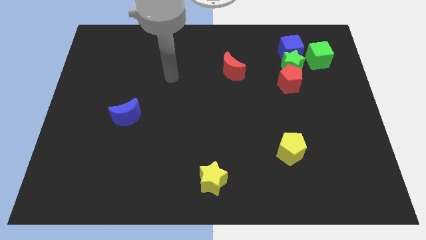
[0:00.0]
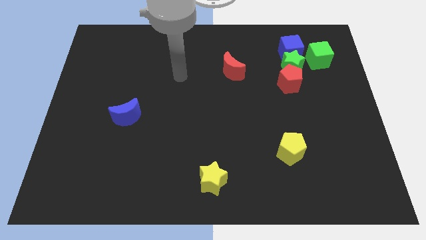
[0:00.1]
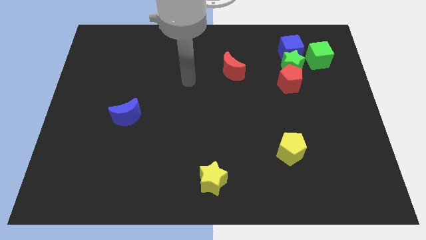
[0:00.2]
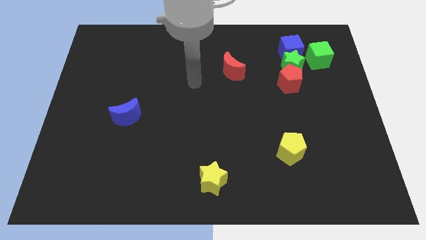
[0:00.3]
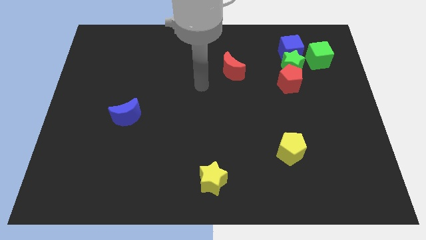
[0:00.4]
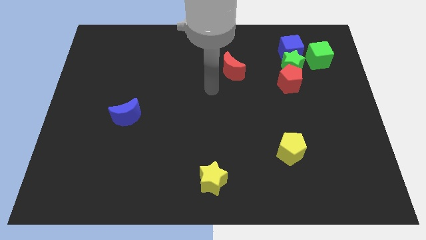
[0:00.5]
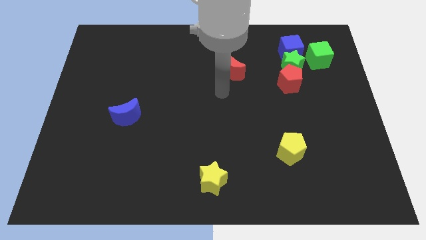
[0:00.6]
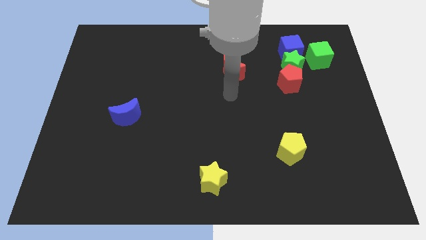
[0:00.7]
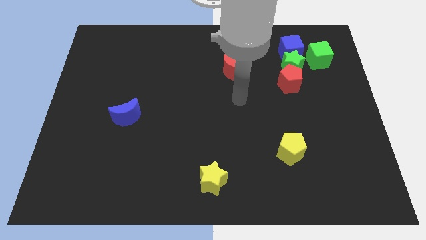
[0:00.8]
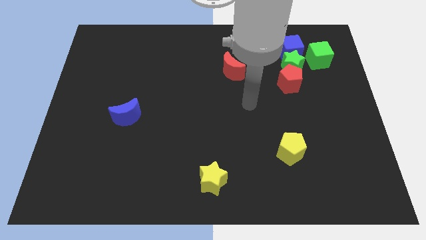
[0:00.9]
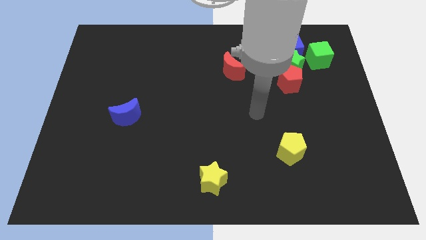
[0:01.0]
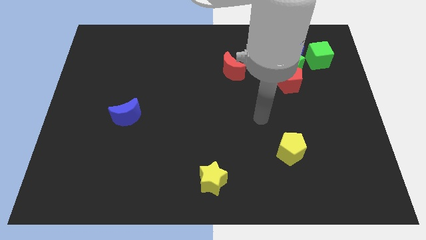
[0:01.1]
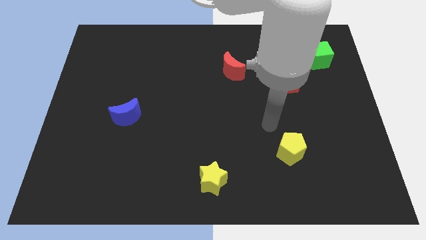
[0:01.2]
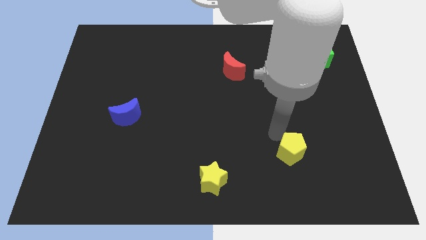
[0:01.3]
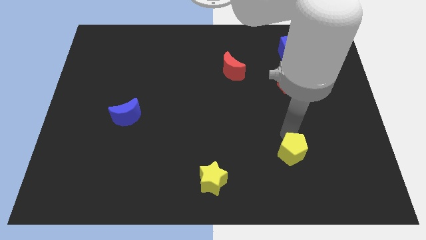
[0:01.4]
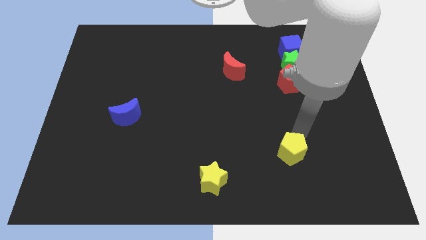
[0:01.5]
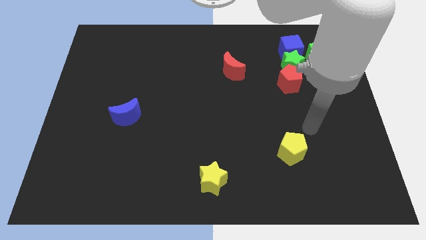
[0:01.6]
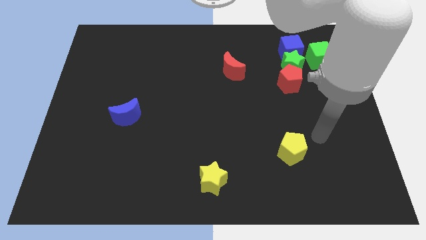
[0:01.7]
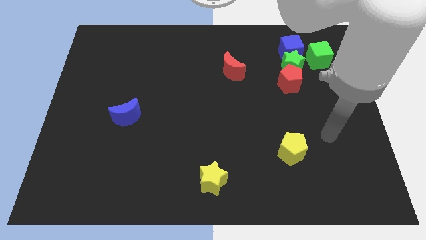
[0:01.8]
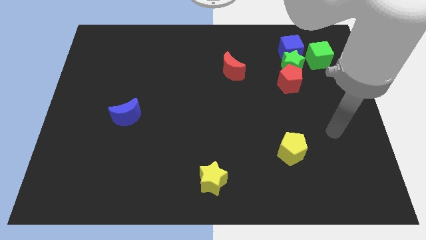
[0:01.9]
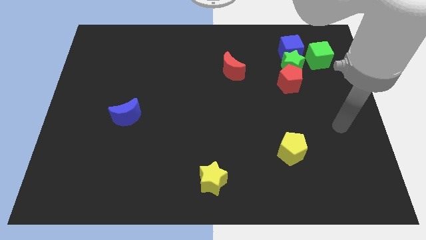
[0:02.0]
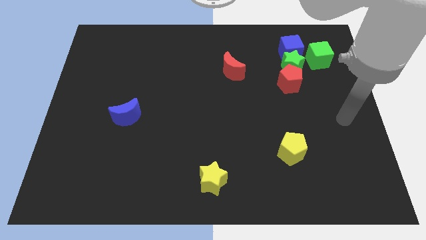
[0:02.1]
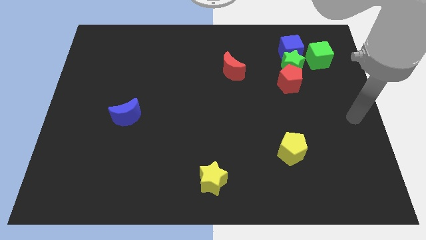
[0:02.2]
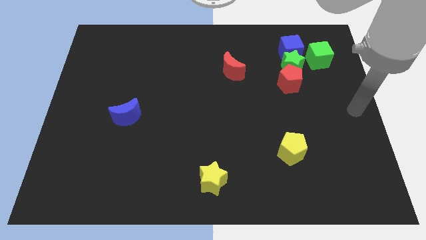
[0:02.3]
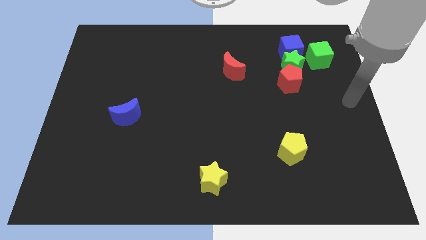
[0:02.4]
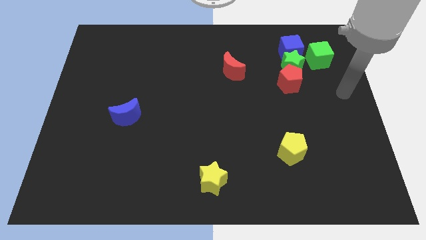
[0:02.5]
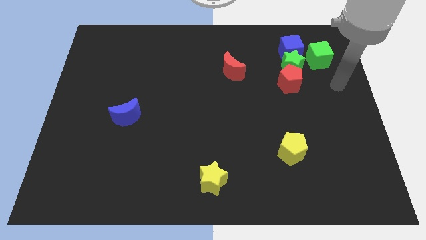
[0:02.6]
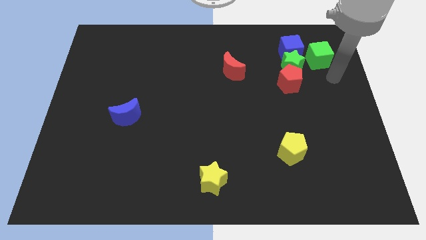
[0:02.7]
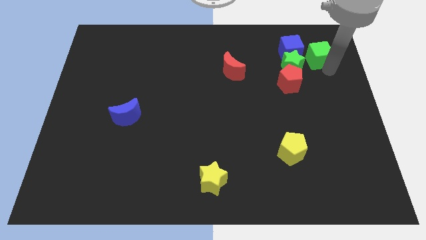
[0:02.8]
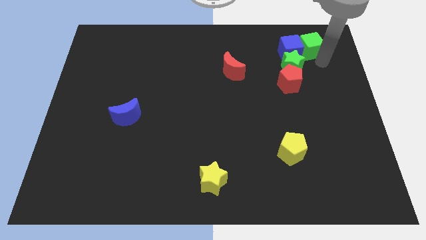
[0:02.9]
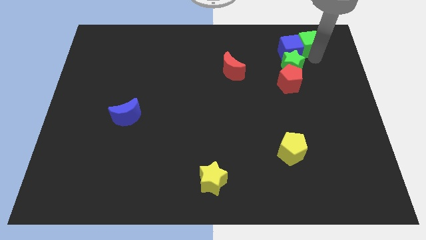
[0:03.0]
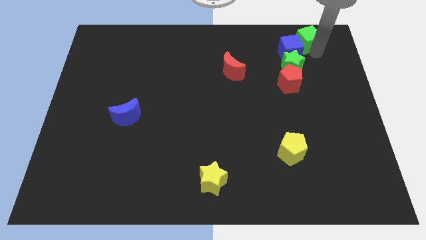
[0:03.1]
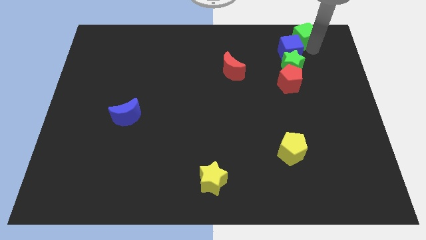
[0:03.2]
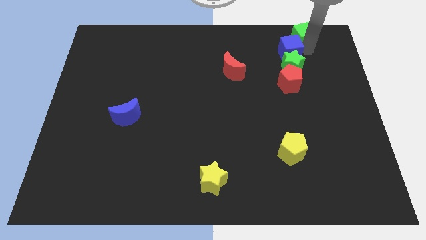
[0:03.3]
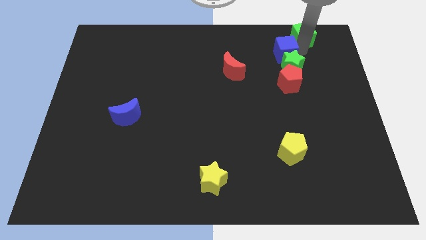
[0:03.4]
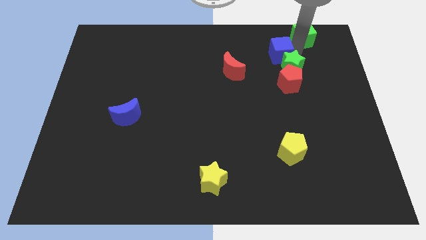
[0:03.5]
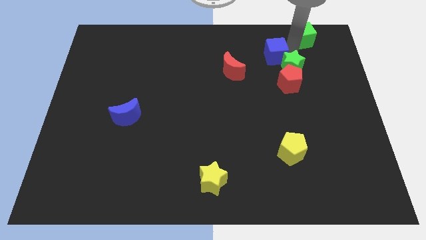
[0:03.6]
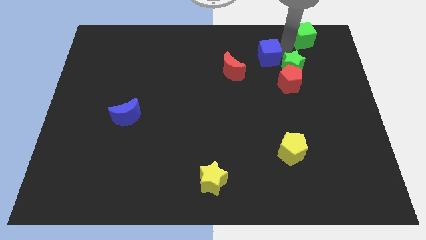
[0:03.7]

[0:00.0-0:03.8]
move the blue cube to the top right side of the red moon

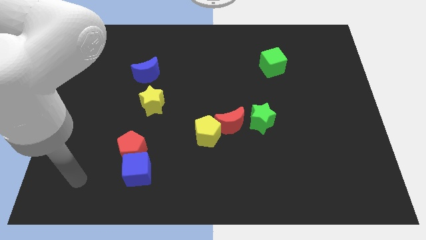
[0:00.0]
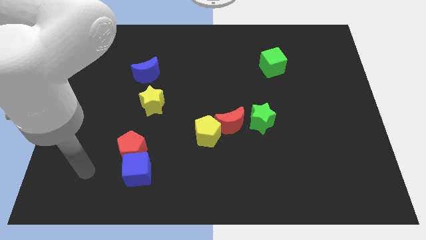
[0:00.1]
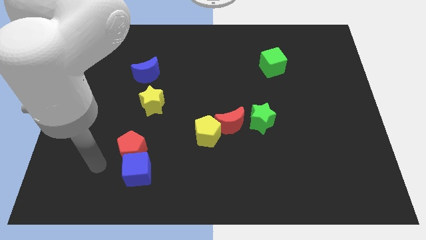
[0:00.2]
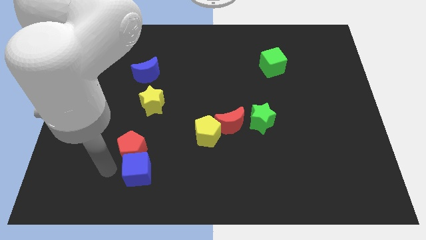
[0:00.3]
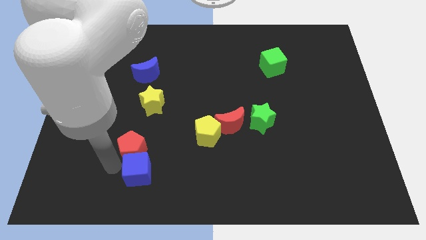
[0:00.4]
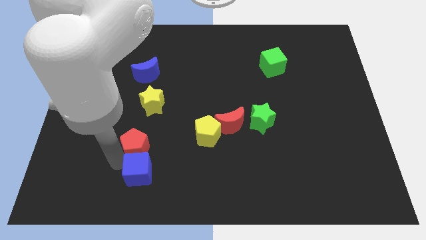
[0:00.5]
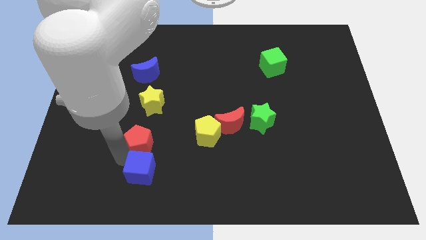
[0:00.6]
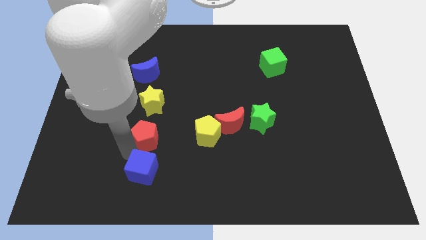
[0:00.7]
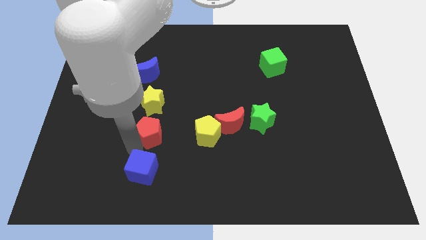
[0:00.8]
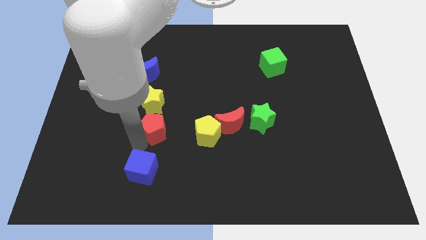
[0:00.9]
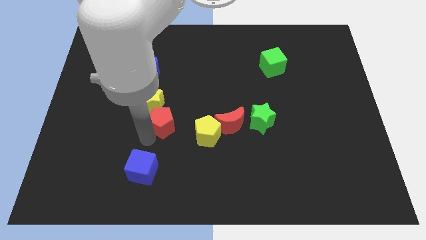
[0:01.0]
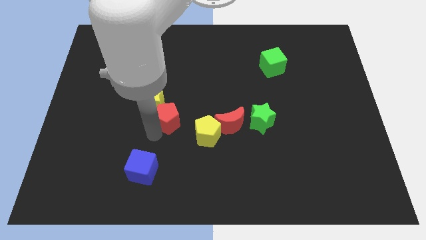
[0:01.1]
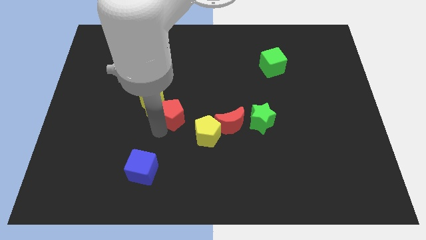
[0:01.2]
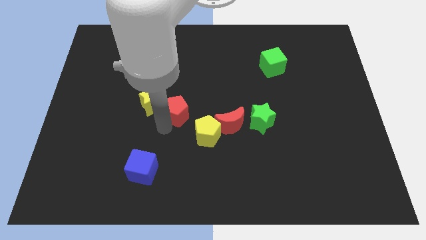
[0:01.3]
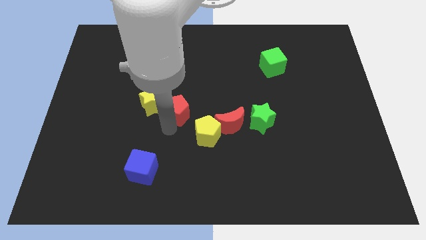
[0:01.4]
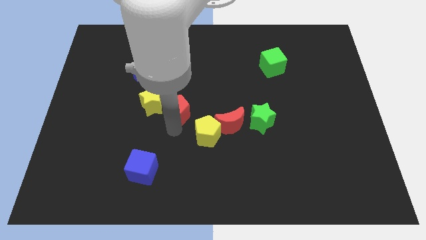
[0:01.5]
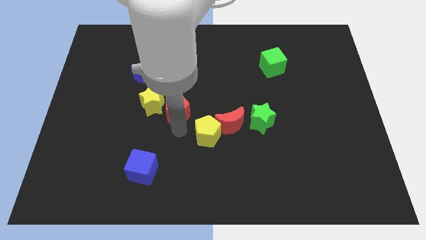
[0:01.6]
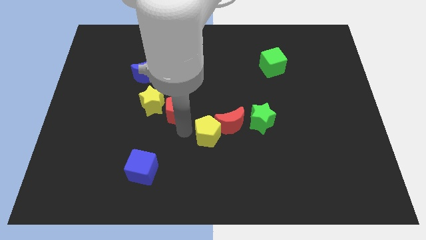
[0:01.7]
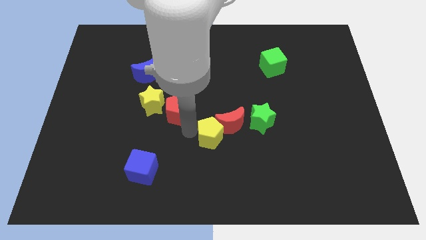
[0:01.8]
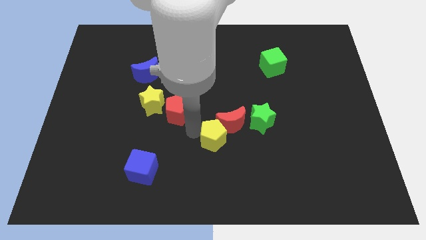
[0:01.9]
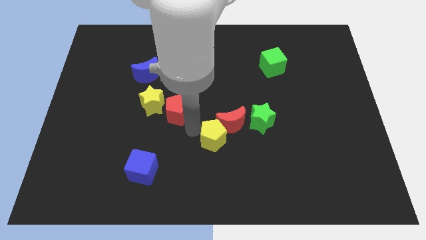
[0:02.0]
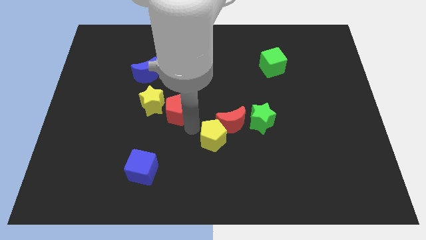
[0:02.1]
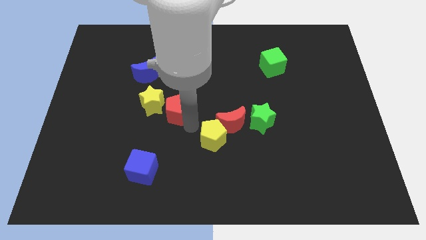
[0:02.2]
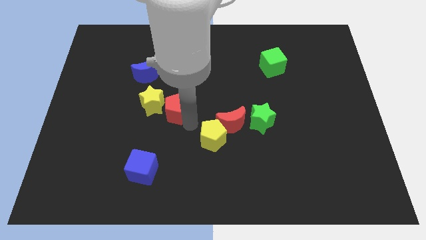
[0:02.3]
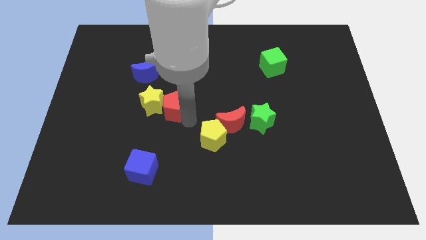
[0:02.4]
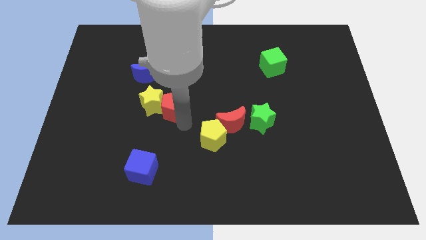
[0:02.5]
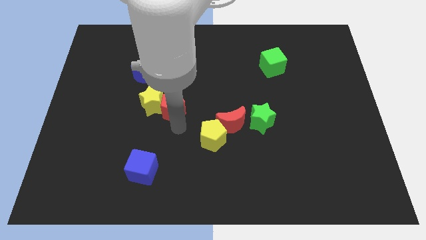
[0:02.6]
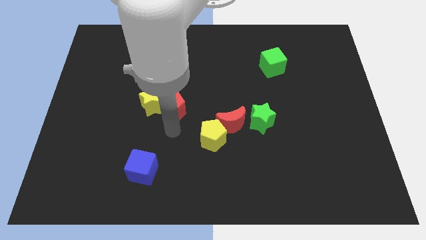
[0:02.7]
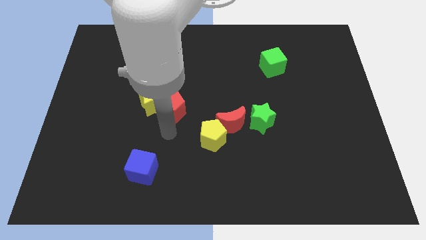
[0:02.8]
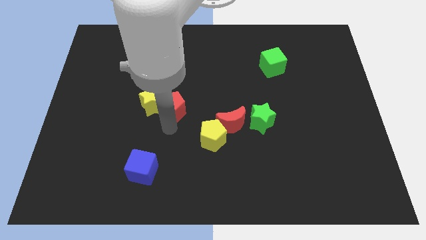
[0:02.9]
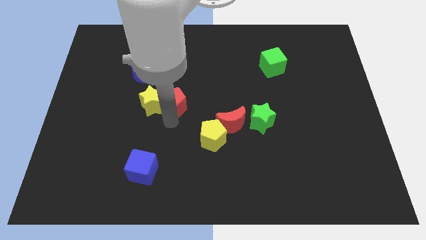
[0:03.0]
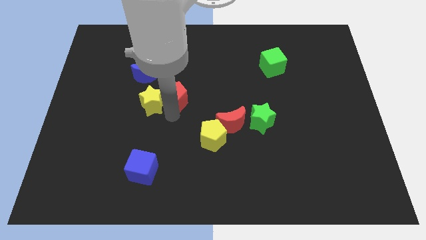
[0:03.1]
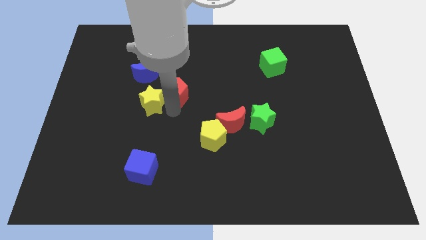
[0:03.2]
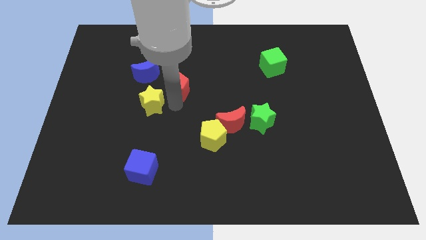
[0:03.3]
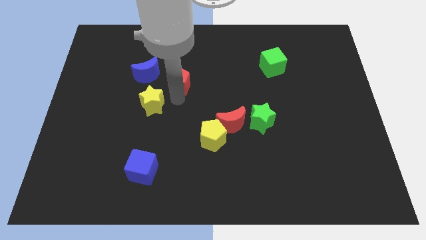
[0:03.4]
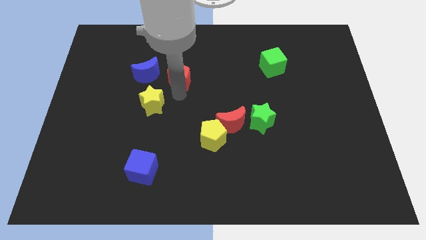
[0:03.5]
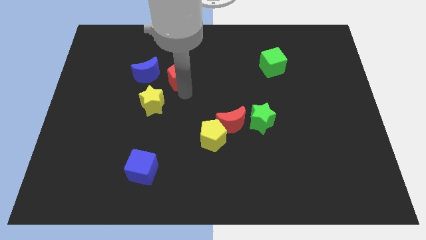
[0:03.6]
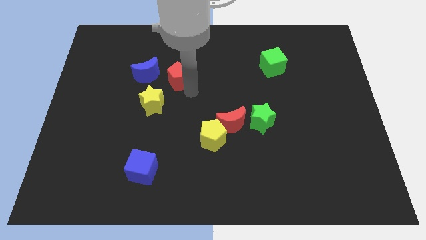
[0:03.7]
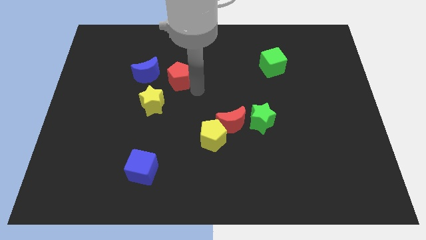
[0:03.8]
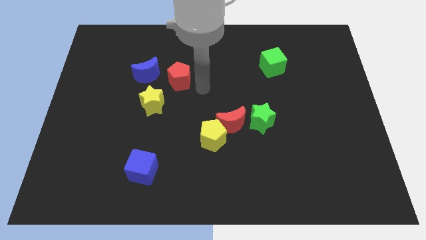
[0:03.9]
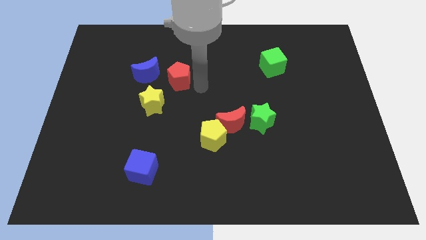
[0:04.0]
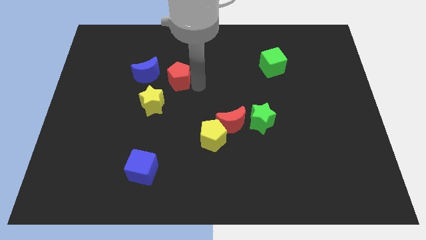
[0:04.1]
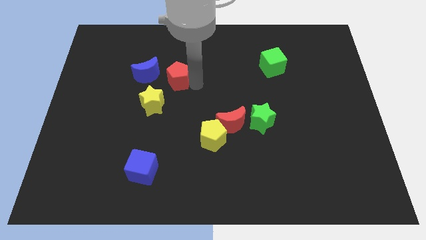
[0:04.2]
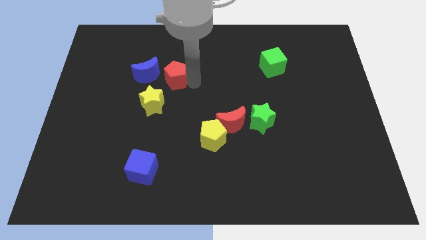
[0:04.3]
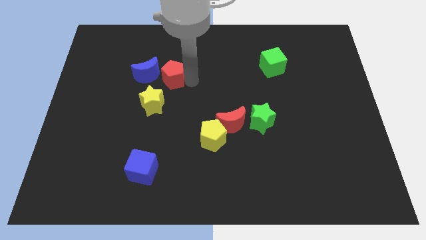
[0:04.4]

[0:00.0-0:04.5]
slide the red pentagon above the yellow star
